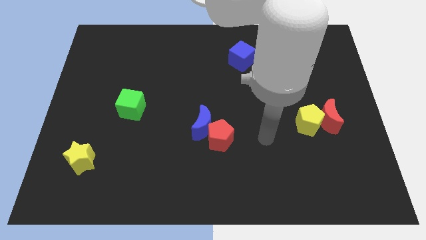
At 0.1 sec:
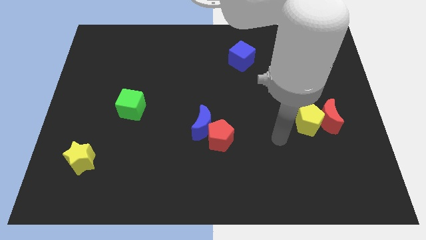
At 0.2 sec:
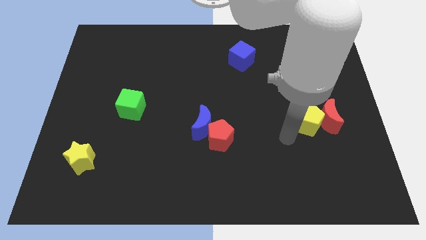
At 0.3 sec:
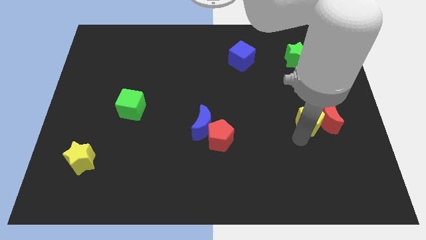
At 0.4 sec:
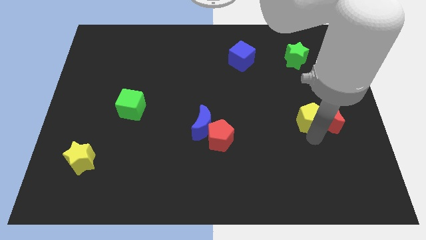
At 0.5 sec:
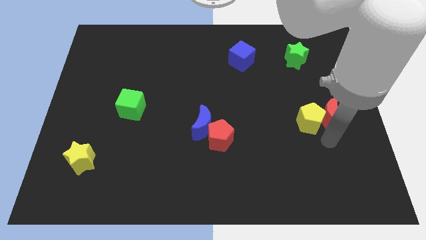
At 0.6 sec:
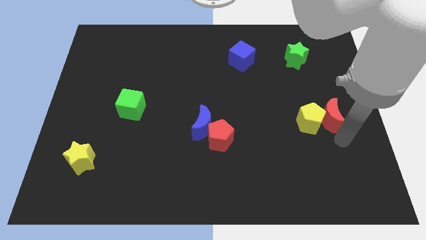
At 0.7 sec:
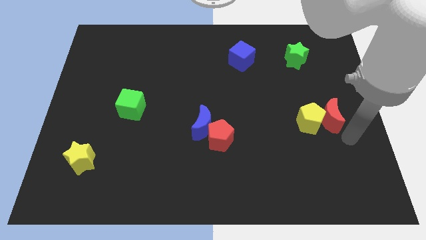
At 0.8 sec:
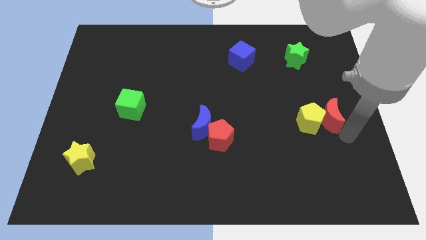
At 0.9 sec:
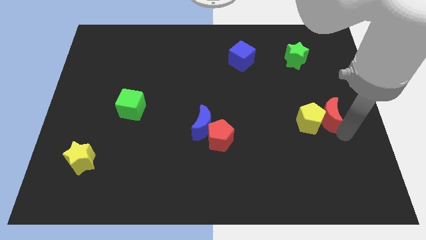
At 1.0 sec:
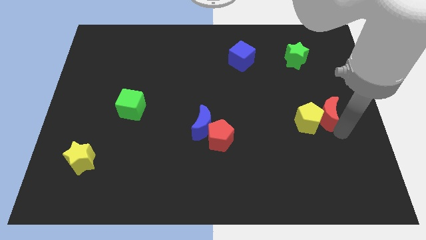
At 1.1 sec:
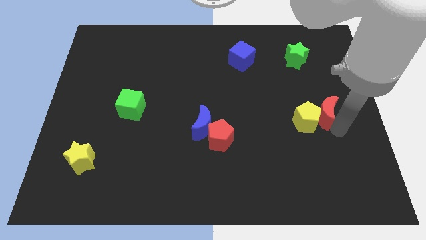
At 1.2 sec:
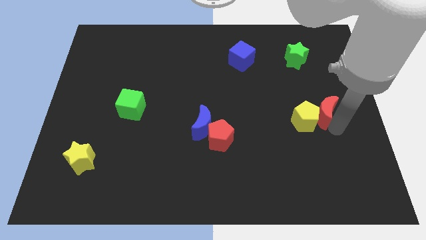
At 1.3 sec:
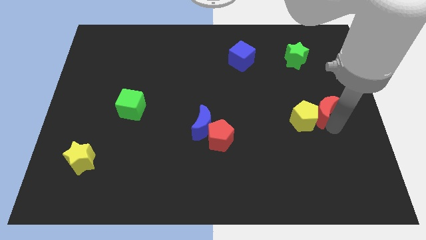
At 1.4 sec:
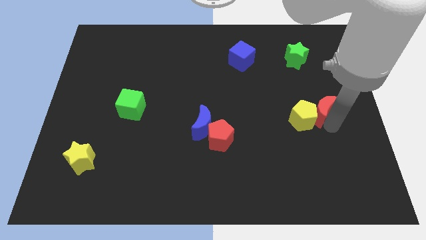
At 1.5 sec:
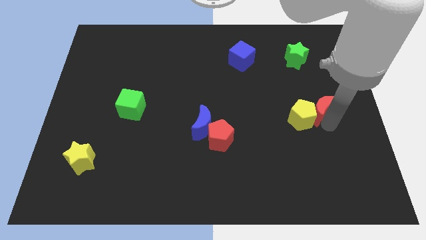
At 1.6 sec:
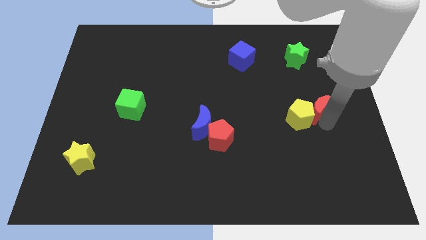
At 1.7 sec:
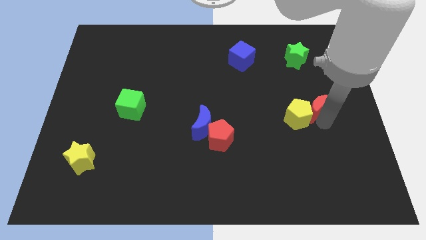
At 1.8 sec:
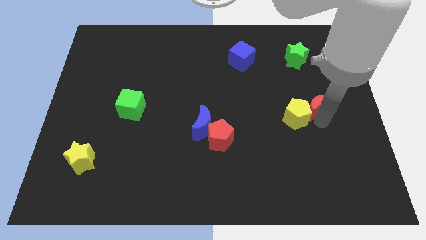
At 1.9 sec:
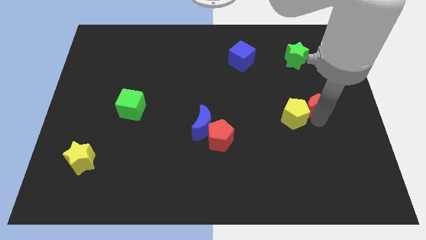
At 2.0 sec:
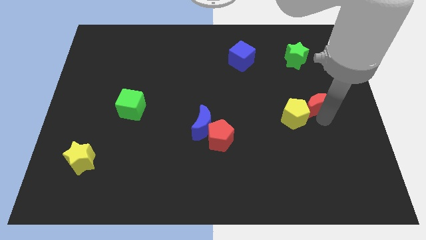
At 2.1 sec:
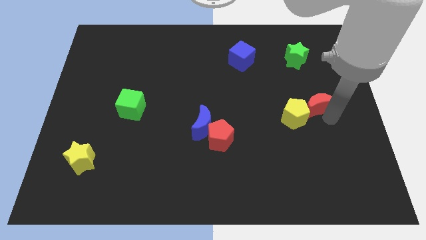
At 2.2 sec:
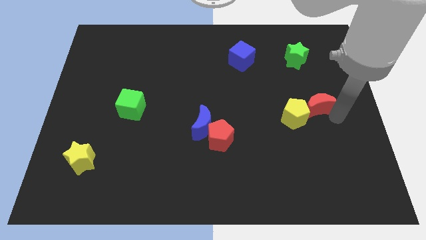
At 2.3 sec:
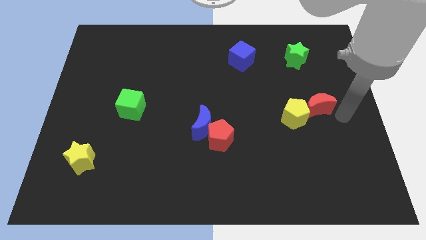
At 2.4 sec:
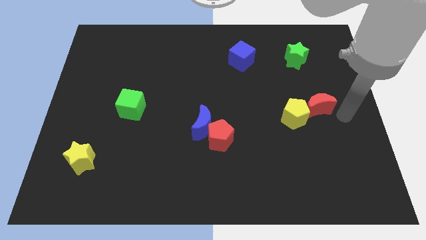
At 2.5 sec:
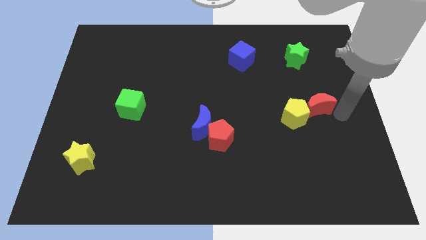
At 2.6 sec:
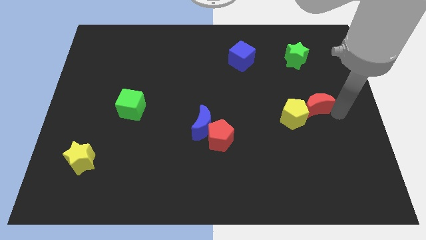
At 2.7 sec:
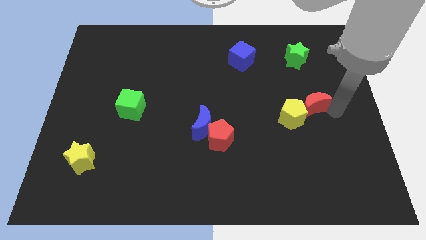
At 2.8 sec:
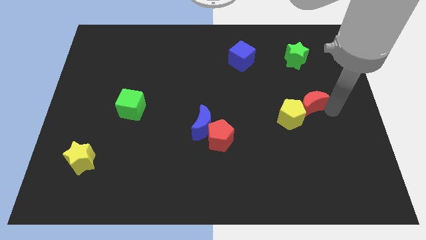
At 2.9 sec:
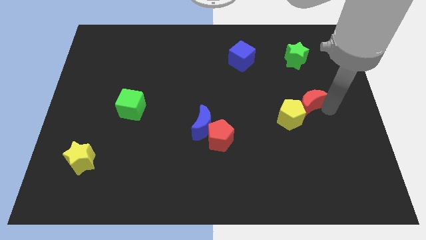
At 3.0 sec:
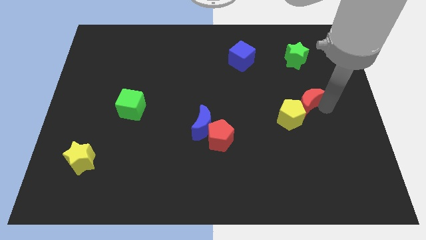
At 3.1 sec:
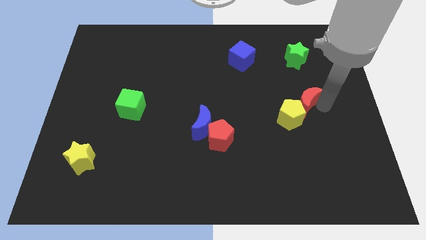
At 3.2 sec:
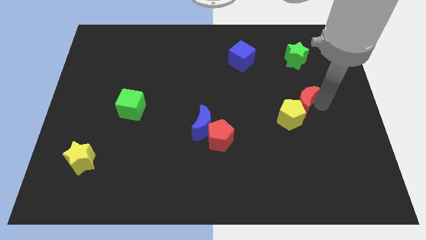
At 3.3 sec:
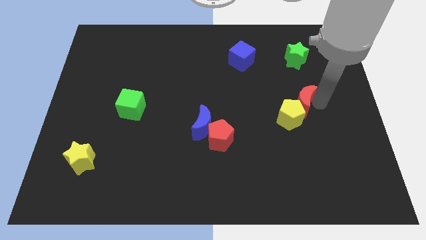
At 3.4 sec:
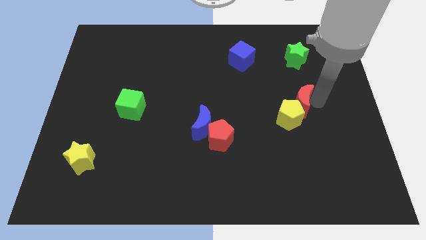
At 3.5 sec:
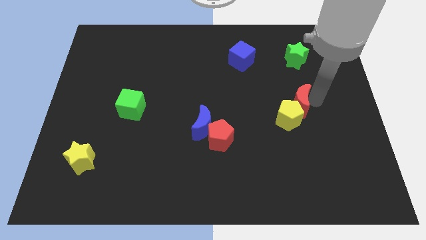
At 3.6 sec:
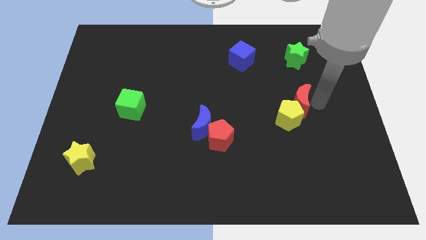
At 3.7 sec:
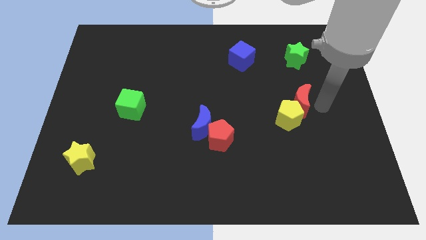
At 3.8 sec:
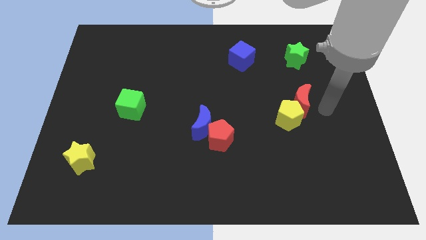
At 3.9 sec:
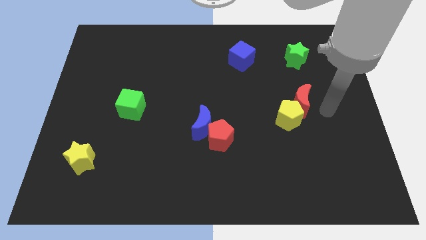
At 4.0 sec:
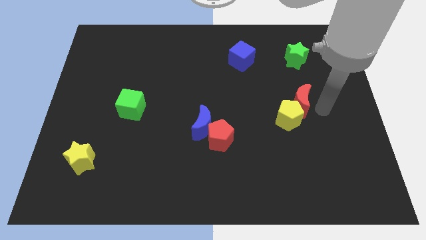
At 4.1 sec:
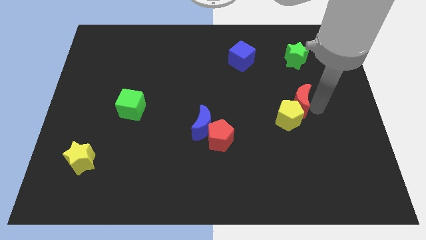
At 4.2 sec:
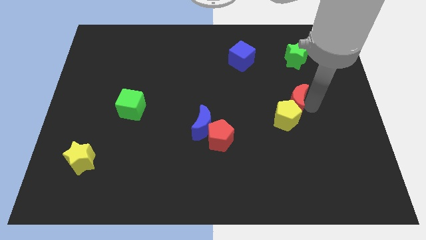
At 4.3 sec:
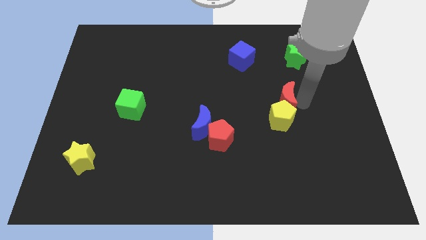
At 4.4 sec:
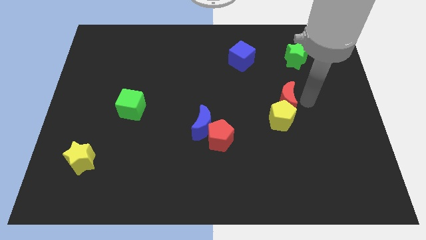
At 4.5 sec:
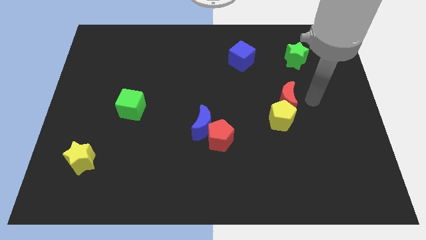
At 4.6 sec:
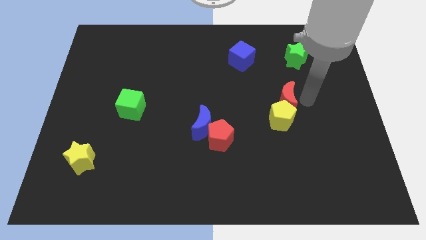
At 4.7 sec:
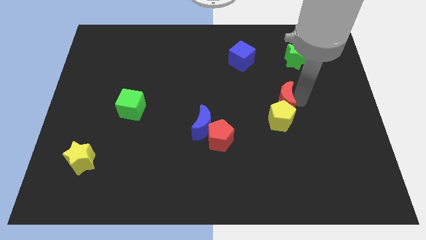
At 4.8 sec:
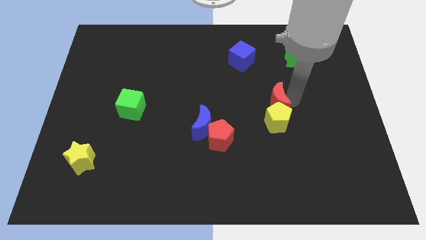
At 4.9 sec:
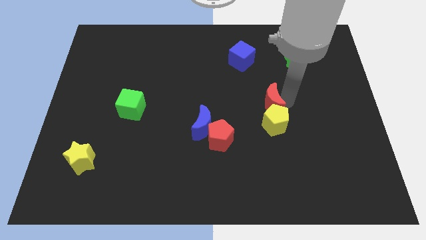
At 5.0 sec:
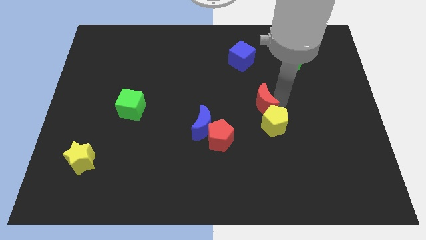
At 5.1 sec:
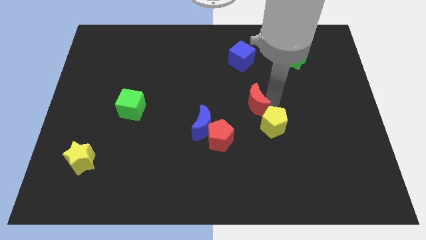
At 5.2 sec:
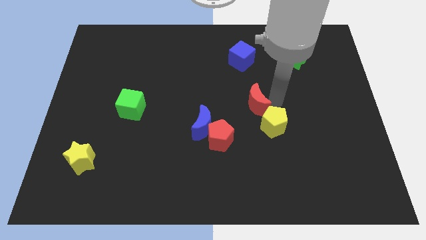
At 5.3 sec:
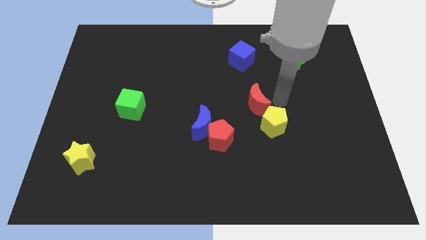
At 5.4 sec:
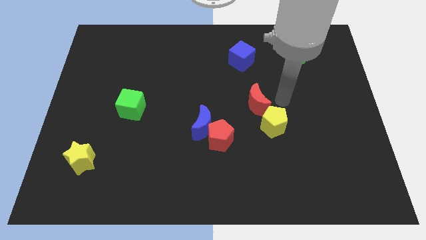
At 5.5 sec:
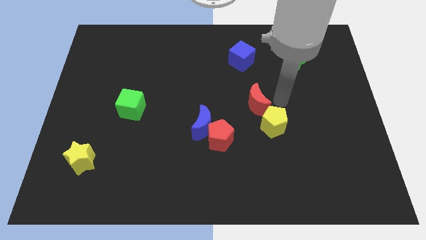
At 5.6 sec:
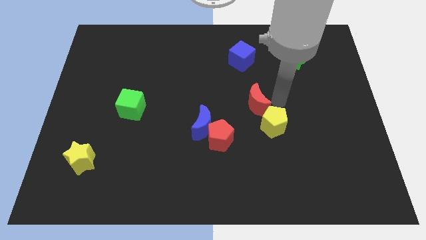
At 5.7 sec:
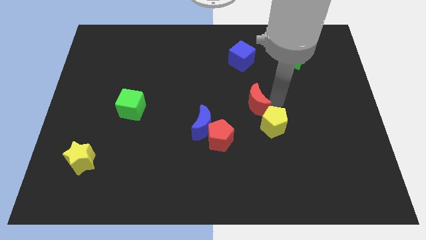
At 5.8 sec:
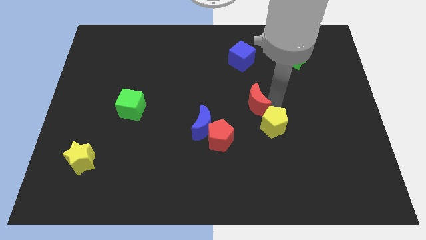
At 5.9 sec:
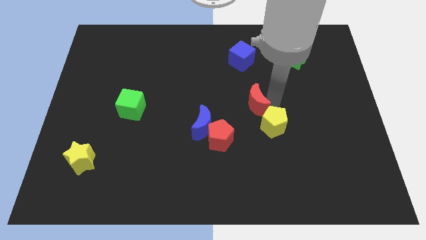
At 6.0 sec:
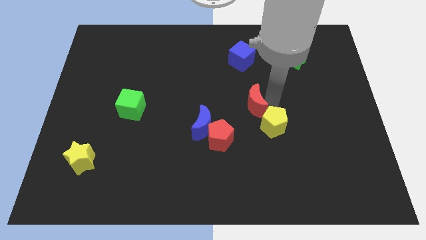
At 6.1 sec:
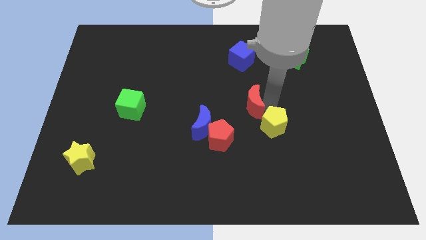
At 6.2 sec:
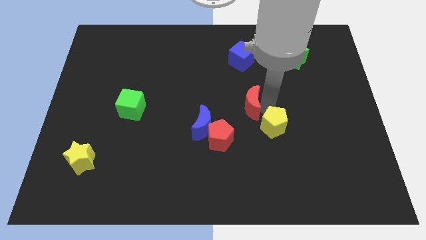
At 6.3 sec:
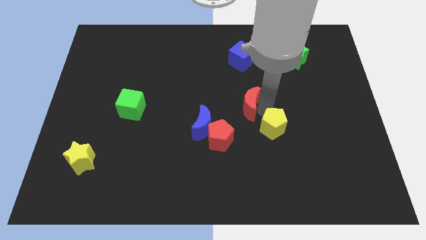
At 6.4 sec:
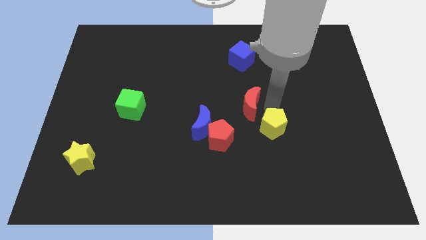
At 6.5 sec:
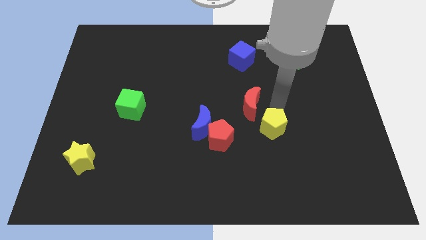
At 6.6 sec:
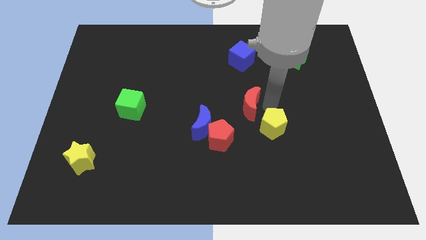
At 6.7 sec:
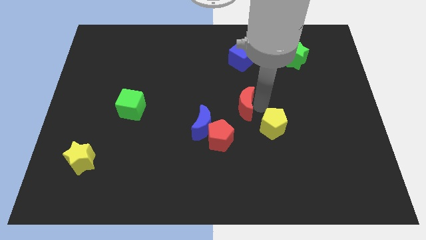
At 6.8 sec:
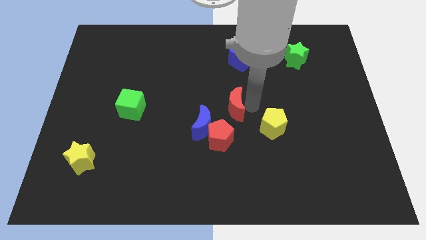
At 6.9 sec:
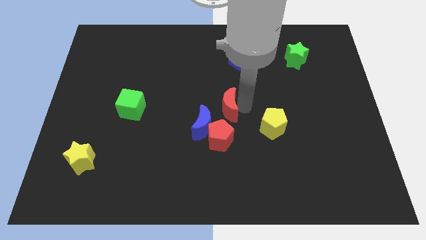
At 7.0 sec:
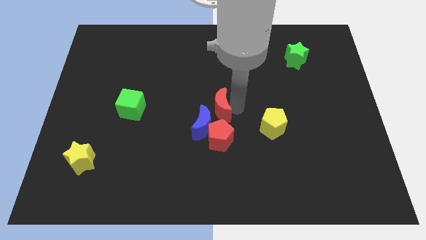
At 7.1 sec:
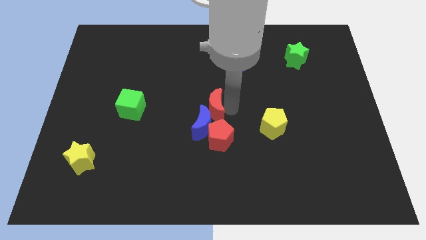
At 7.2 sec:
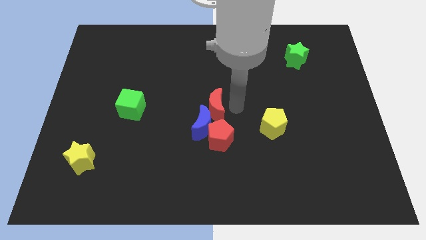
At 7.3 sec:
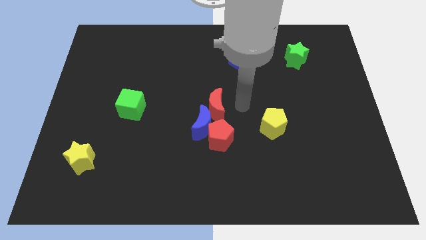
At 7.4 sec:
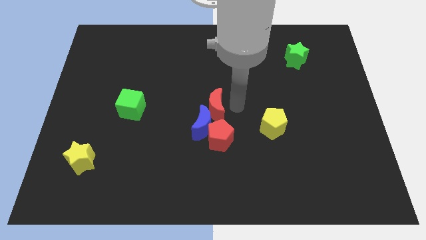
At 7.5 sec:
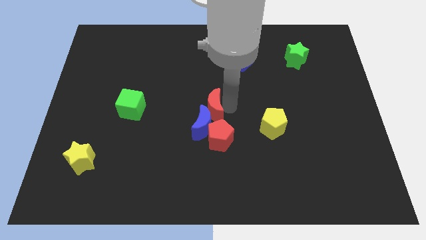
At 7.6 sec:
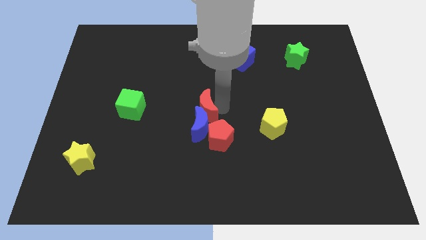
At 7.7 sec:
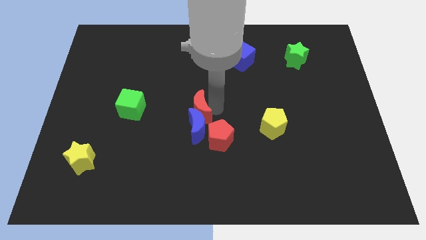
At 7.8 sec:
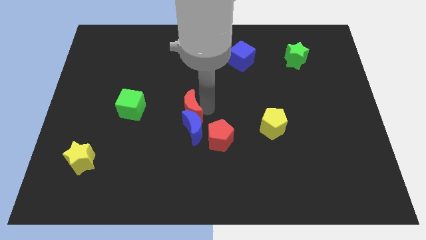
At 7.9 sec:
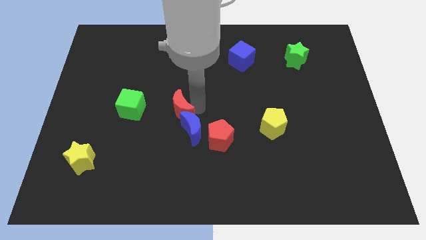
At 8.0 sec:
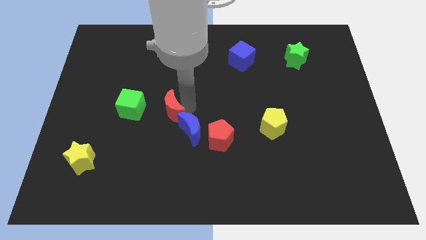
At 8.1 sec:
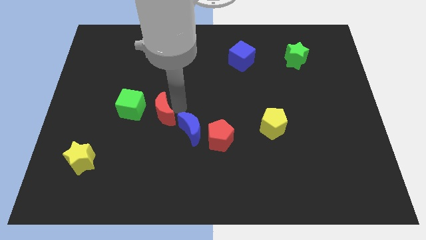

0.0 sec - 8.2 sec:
move the red moon just left of the blue moon

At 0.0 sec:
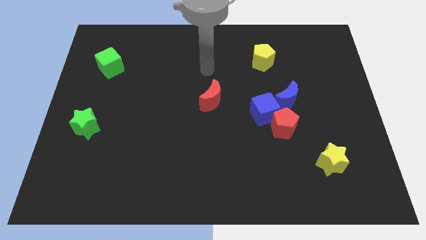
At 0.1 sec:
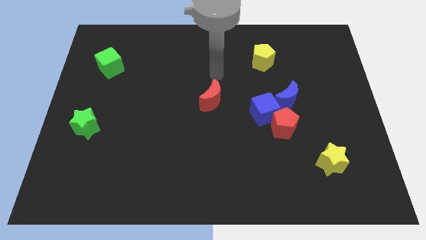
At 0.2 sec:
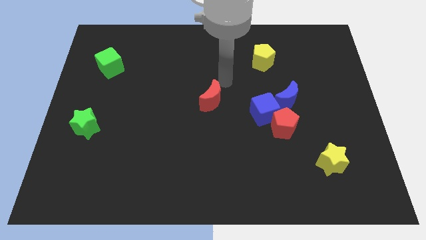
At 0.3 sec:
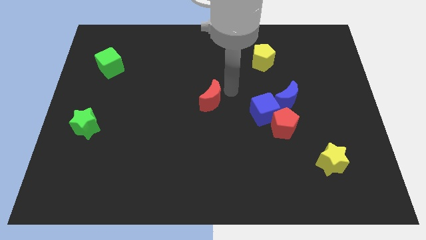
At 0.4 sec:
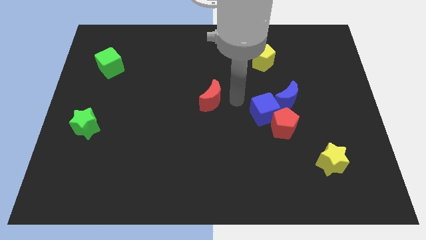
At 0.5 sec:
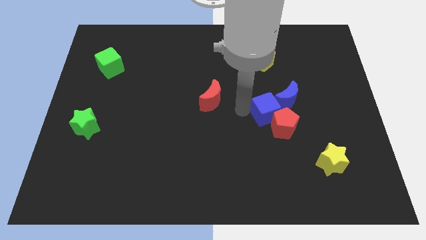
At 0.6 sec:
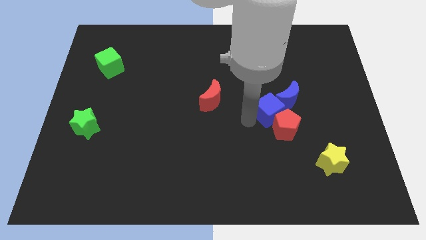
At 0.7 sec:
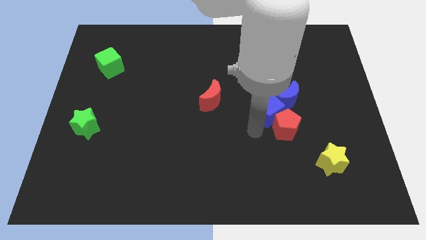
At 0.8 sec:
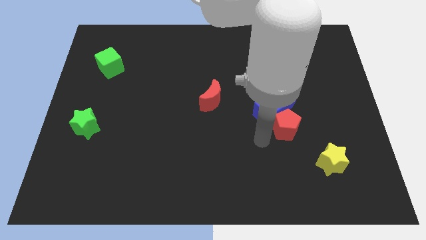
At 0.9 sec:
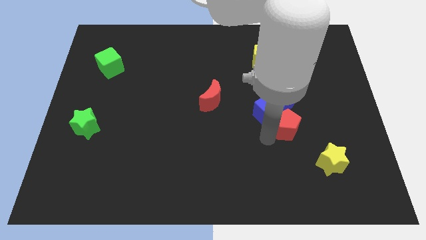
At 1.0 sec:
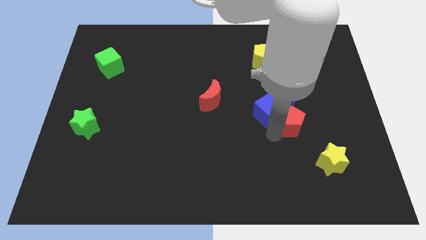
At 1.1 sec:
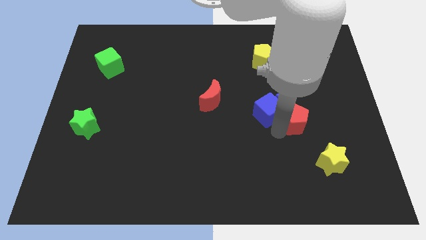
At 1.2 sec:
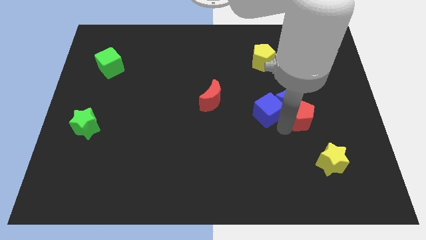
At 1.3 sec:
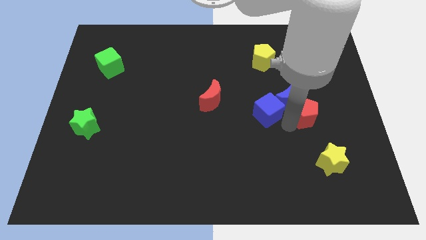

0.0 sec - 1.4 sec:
put the red pentagon just right of the blue moon
